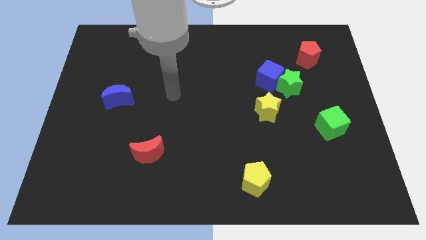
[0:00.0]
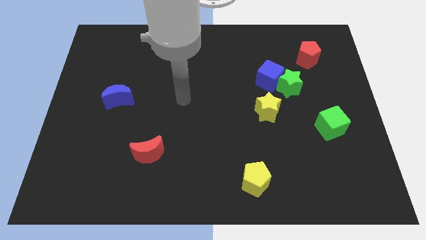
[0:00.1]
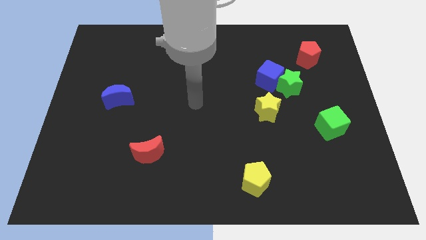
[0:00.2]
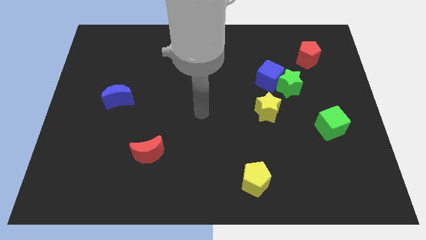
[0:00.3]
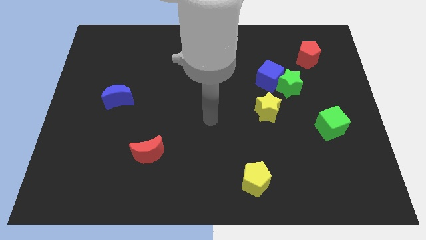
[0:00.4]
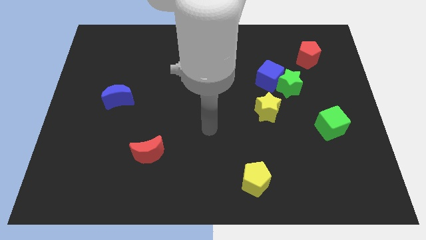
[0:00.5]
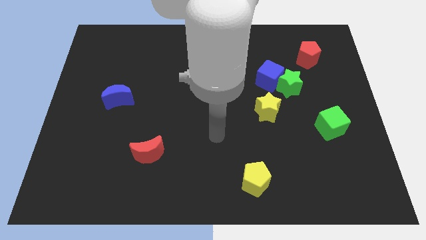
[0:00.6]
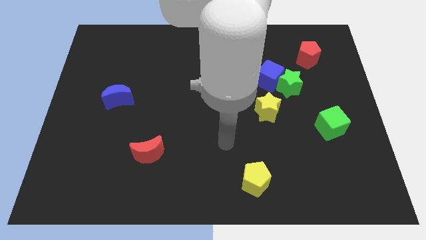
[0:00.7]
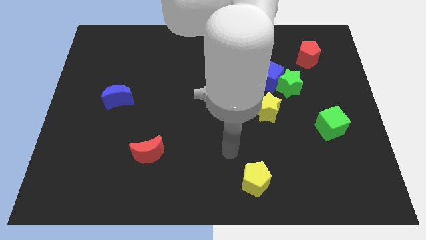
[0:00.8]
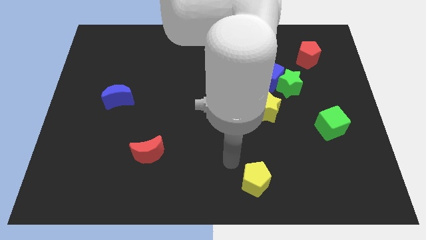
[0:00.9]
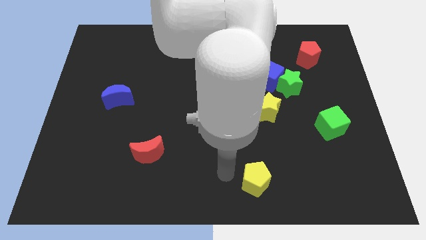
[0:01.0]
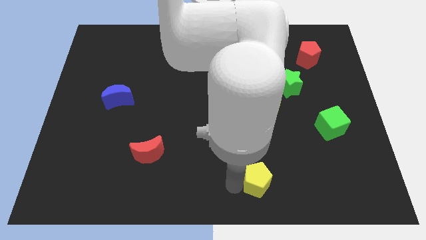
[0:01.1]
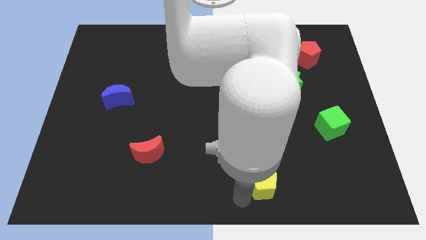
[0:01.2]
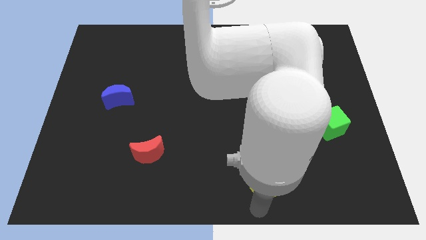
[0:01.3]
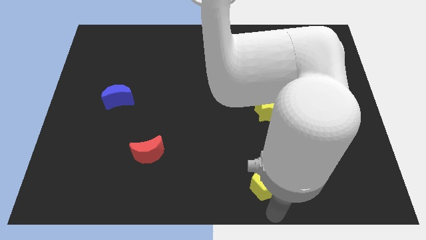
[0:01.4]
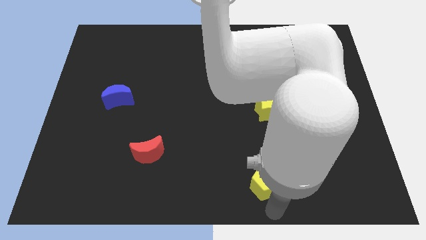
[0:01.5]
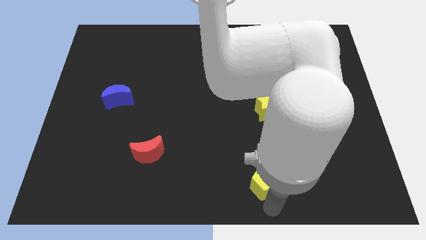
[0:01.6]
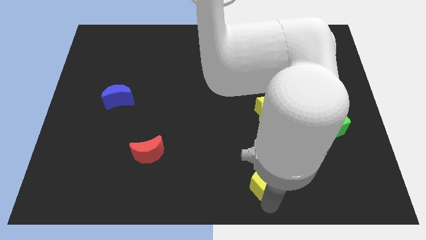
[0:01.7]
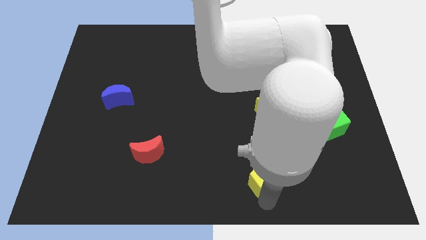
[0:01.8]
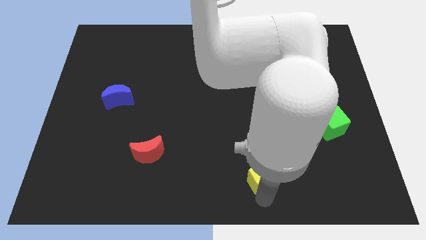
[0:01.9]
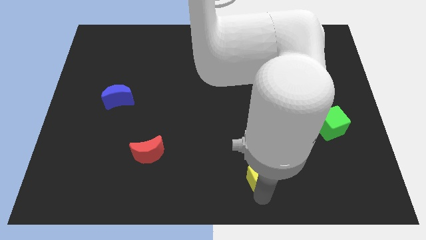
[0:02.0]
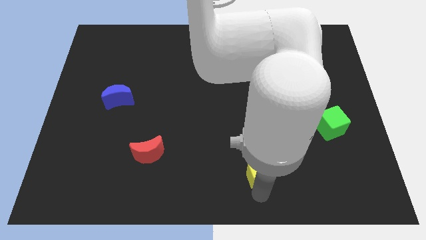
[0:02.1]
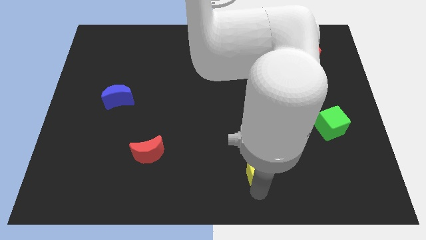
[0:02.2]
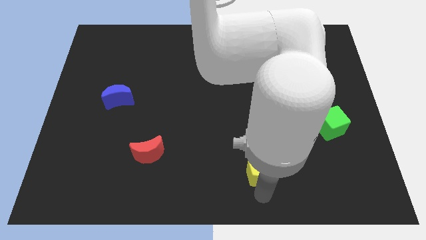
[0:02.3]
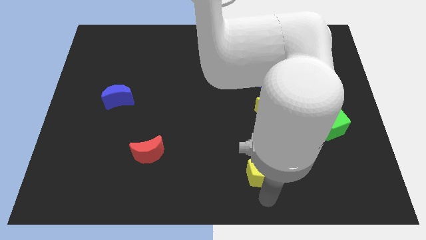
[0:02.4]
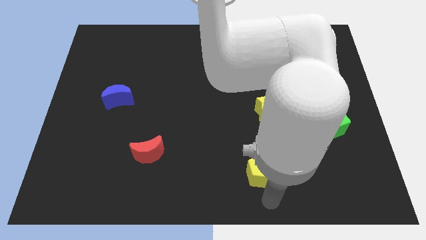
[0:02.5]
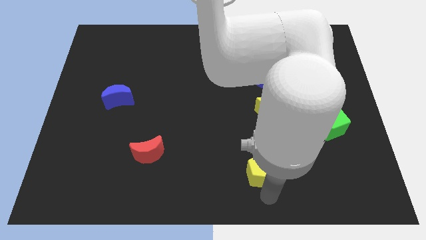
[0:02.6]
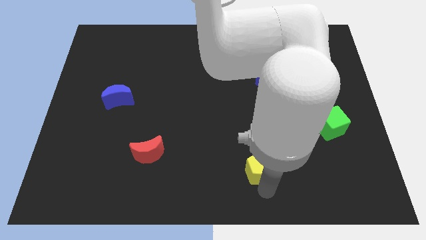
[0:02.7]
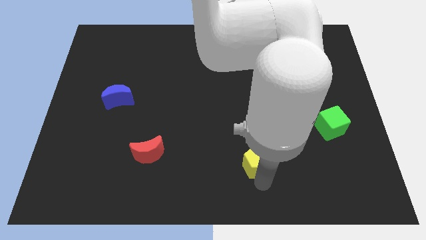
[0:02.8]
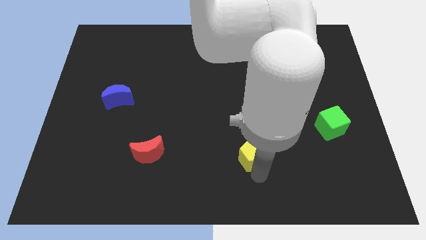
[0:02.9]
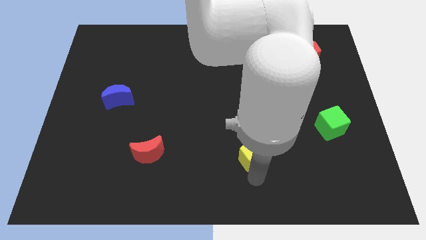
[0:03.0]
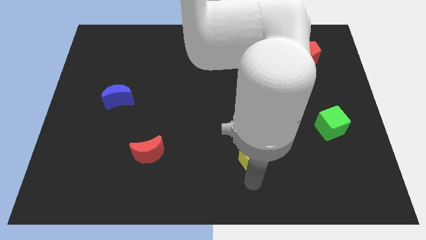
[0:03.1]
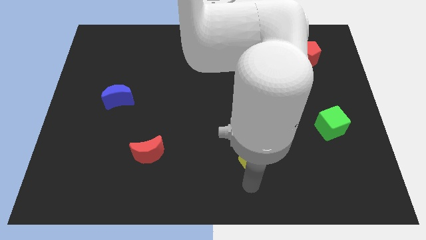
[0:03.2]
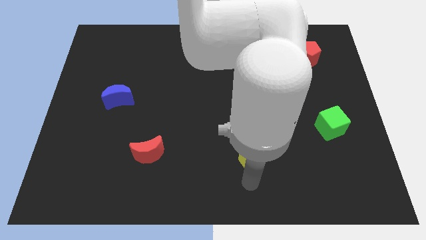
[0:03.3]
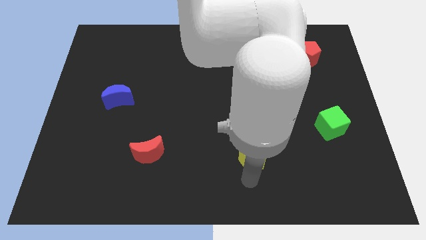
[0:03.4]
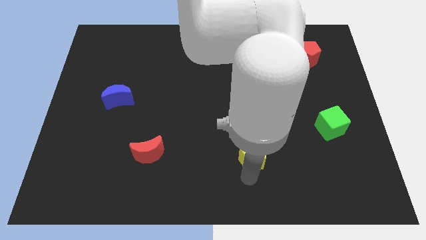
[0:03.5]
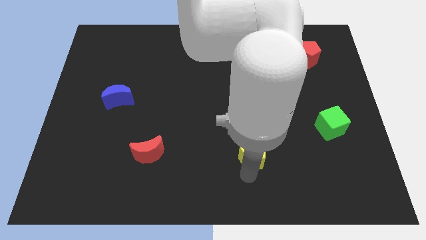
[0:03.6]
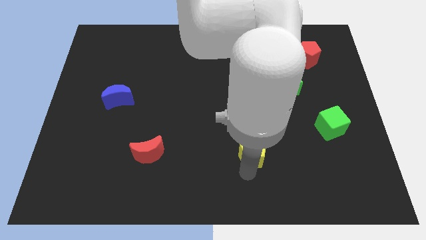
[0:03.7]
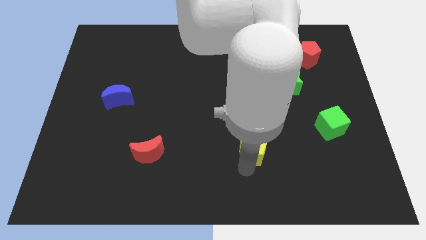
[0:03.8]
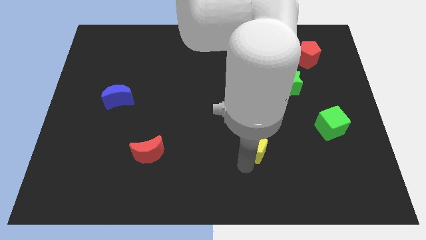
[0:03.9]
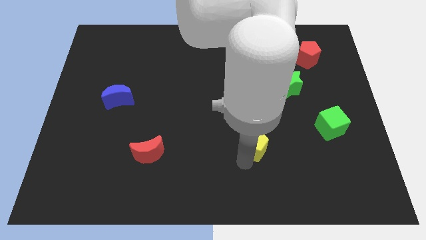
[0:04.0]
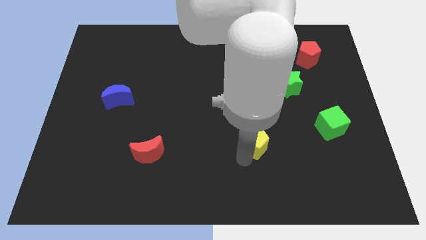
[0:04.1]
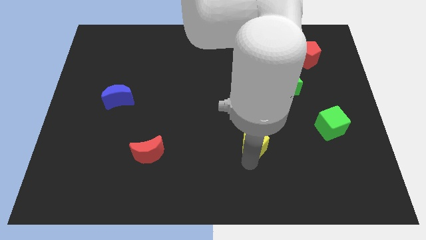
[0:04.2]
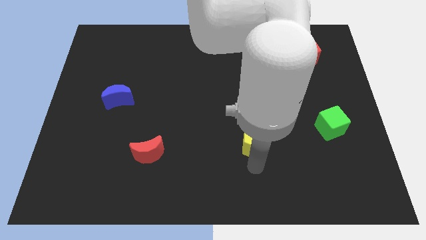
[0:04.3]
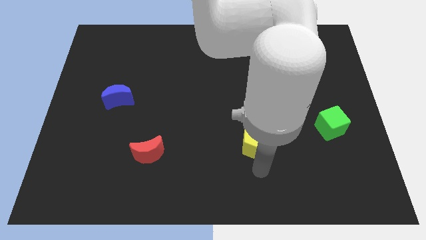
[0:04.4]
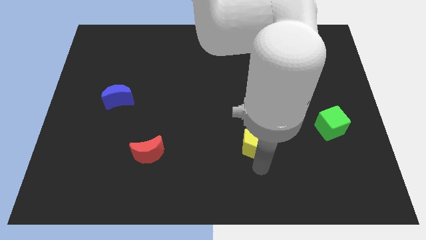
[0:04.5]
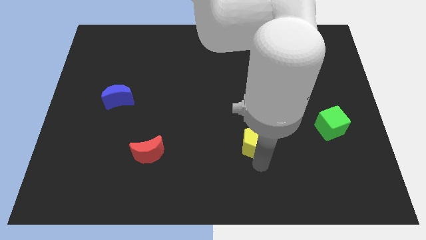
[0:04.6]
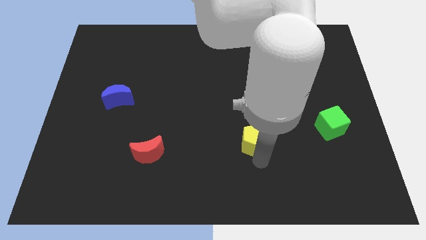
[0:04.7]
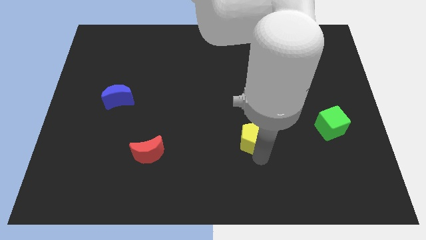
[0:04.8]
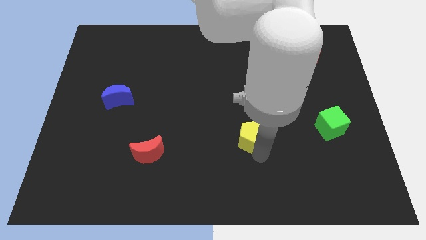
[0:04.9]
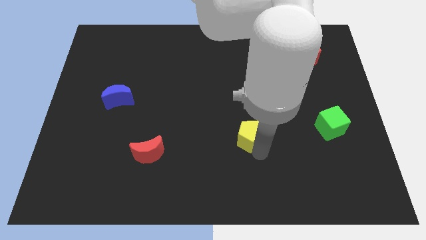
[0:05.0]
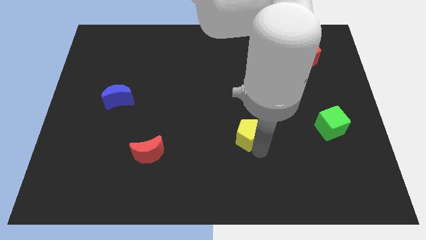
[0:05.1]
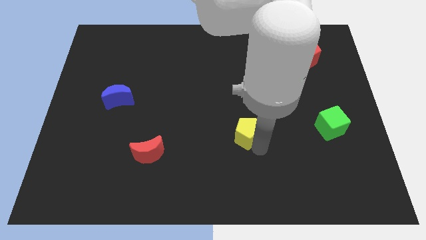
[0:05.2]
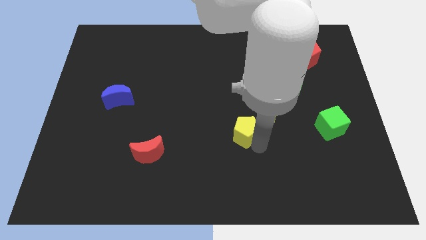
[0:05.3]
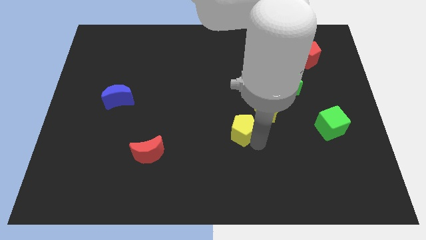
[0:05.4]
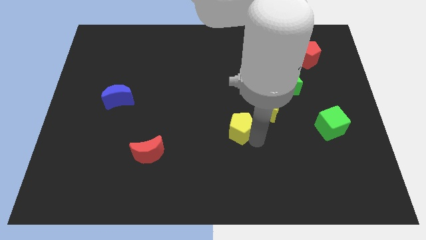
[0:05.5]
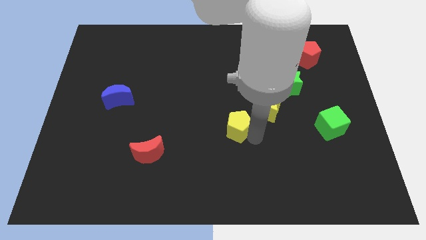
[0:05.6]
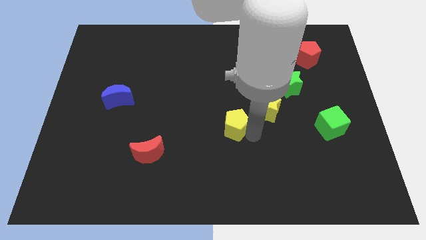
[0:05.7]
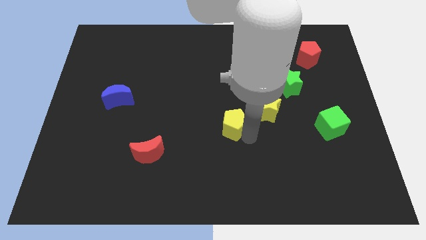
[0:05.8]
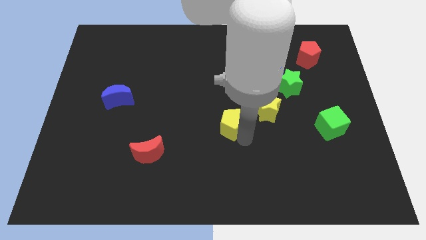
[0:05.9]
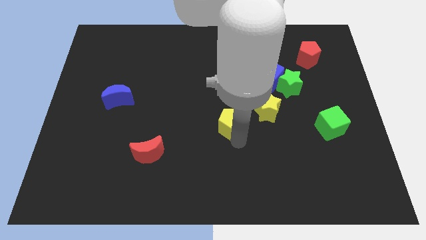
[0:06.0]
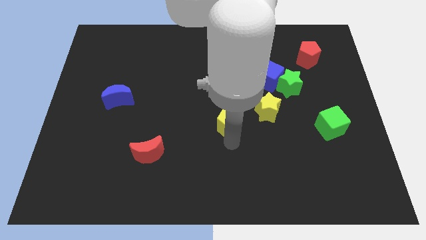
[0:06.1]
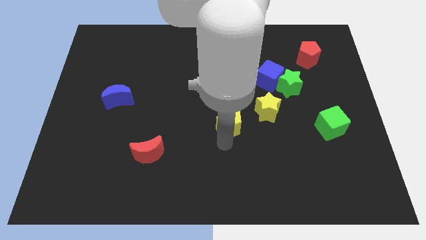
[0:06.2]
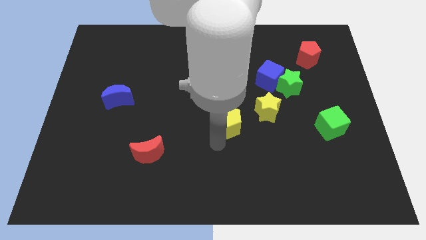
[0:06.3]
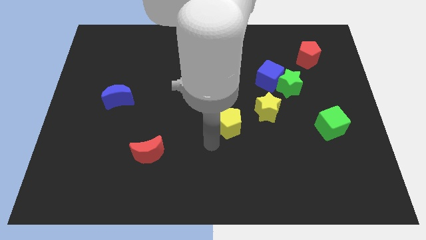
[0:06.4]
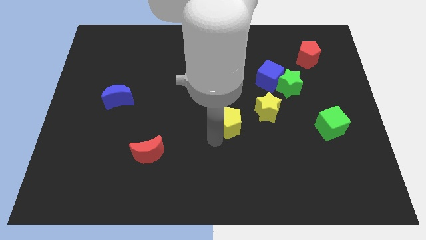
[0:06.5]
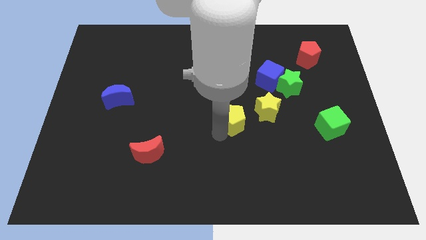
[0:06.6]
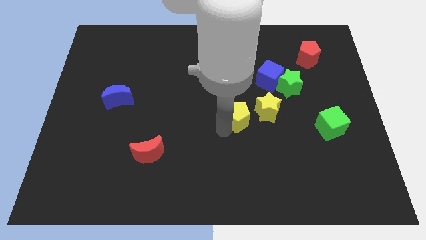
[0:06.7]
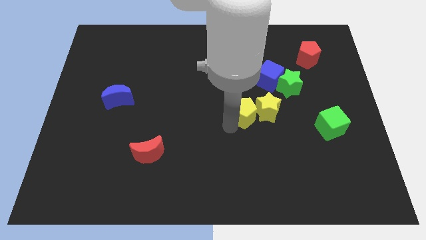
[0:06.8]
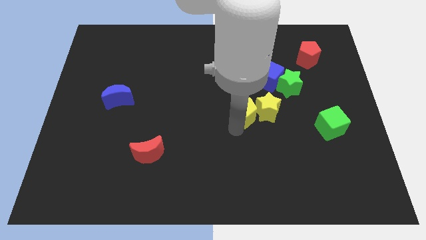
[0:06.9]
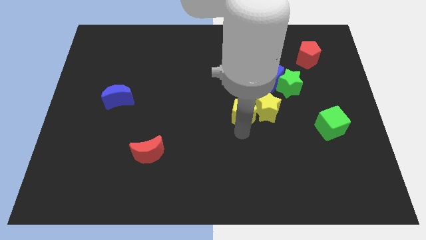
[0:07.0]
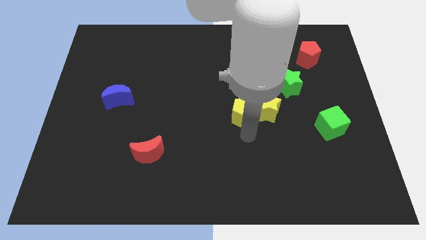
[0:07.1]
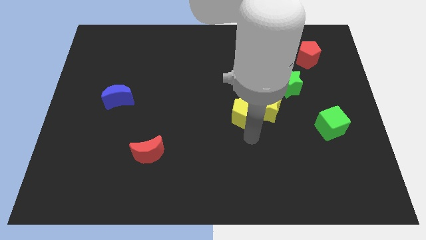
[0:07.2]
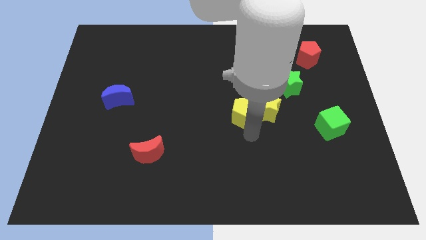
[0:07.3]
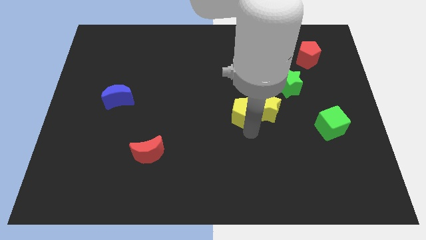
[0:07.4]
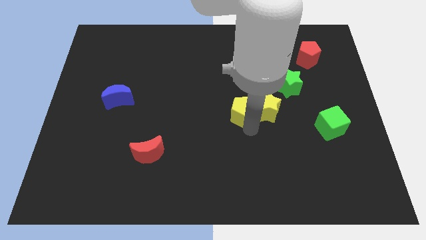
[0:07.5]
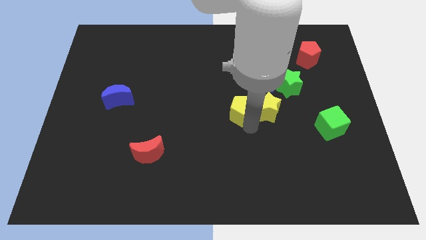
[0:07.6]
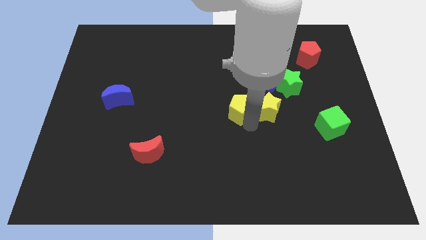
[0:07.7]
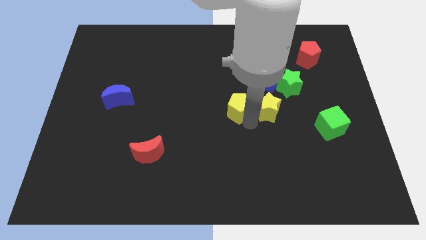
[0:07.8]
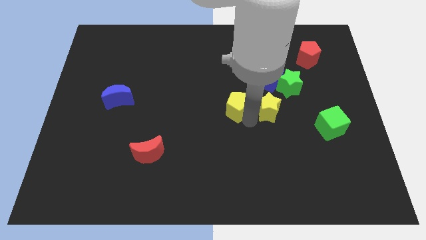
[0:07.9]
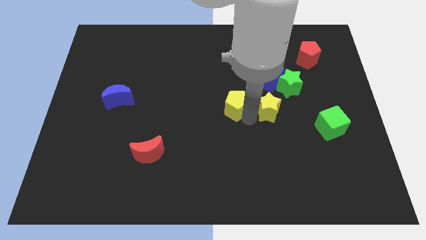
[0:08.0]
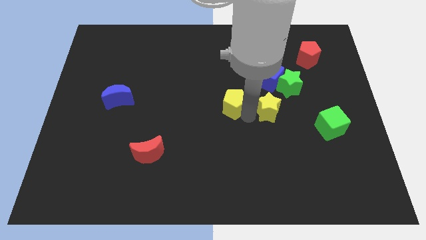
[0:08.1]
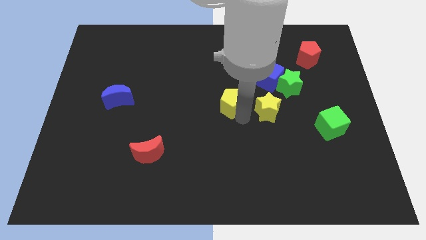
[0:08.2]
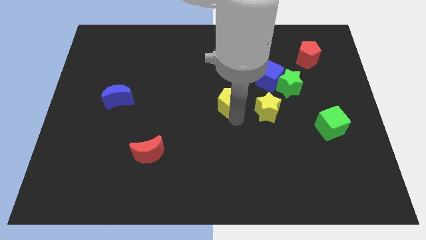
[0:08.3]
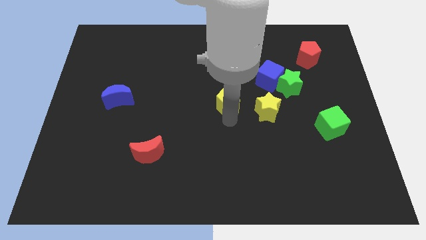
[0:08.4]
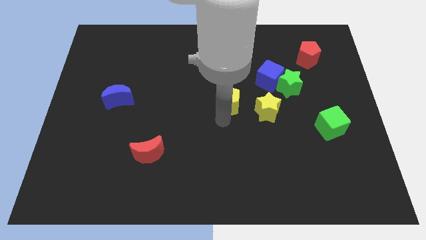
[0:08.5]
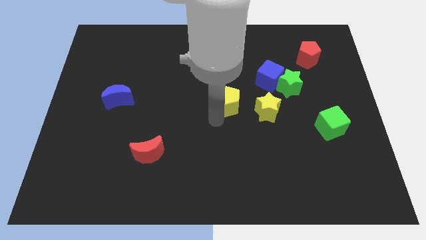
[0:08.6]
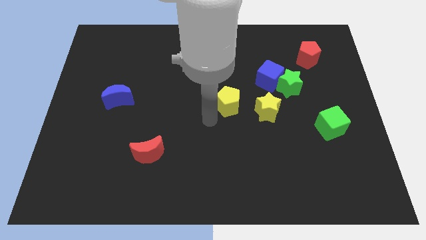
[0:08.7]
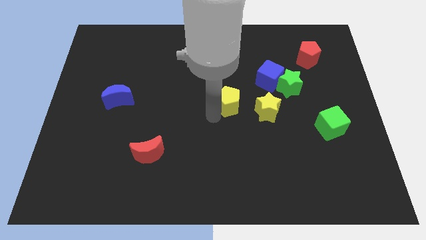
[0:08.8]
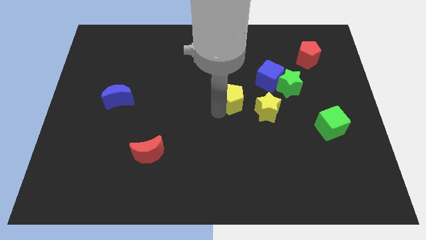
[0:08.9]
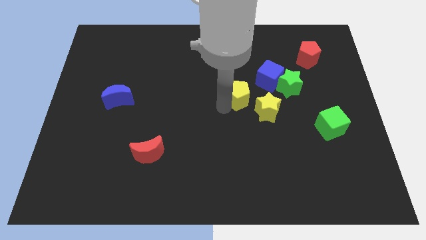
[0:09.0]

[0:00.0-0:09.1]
move the yellow pentagon to the left of the green star
